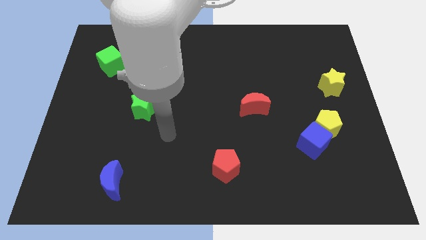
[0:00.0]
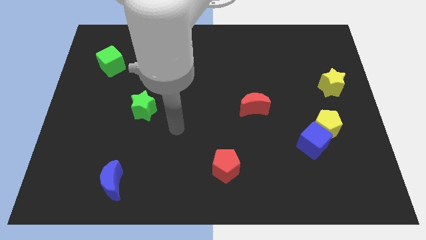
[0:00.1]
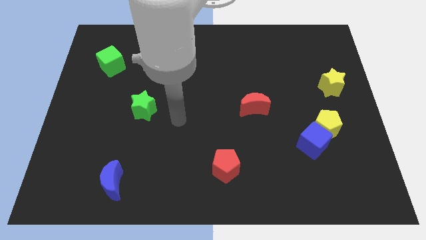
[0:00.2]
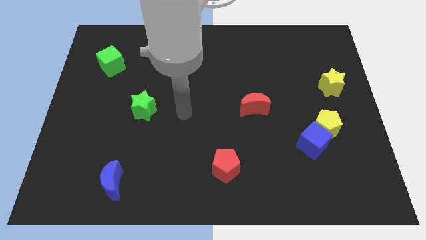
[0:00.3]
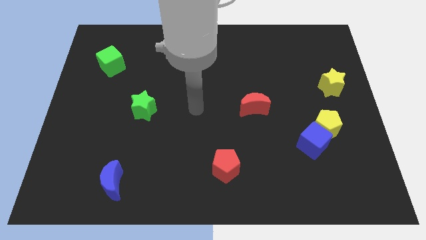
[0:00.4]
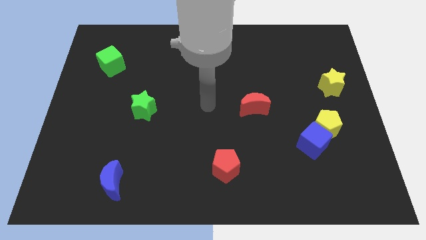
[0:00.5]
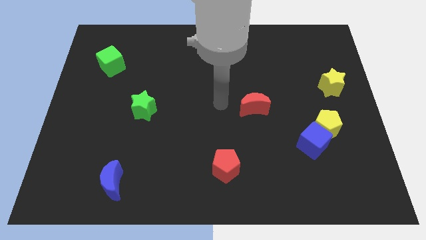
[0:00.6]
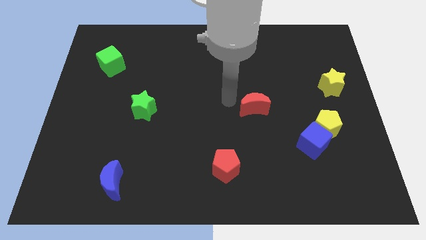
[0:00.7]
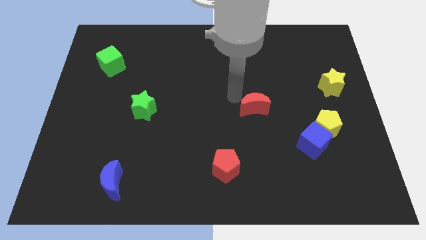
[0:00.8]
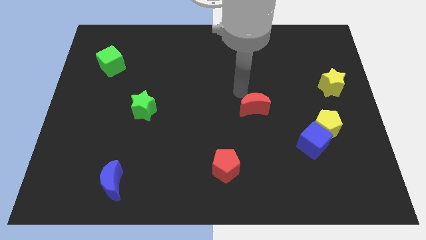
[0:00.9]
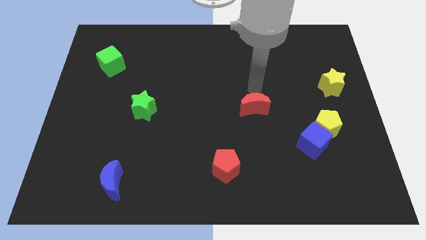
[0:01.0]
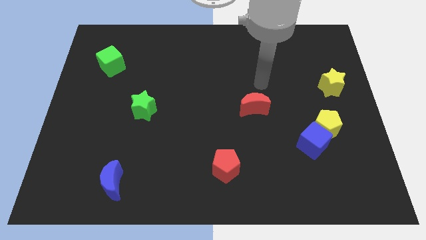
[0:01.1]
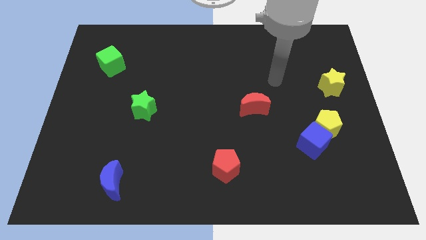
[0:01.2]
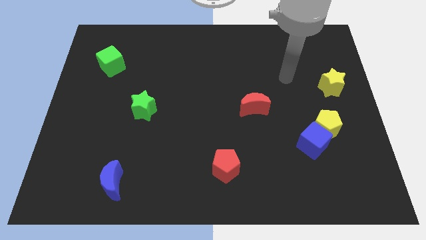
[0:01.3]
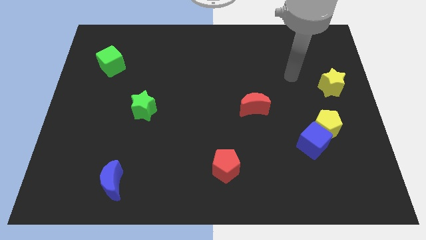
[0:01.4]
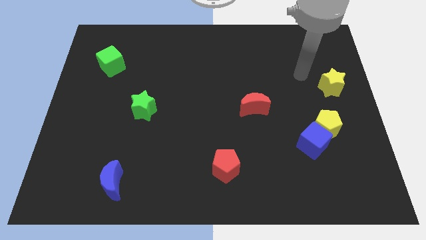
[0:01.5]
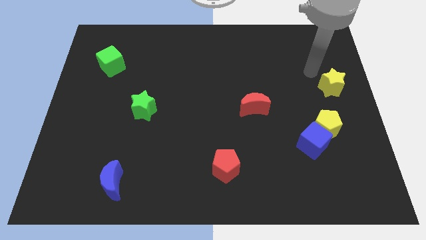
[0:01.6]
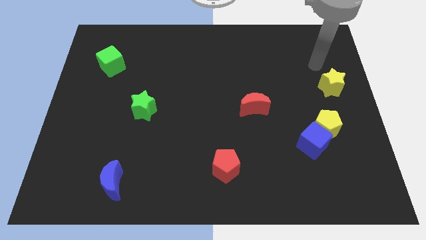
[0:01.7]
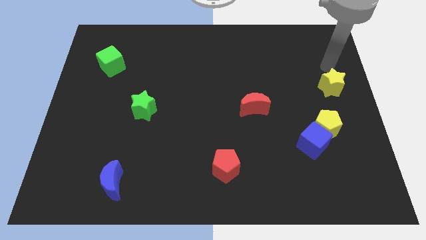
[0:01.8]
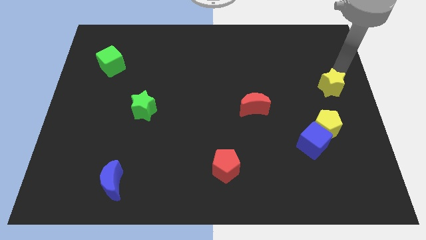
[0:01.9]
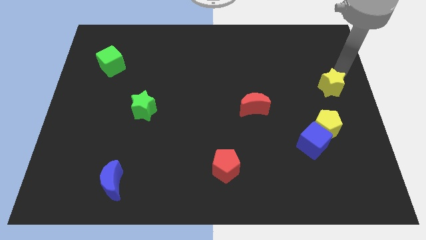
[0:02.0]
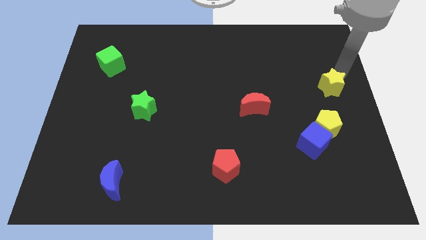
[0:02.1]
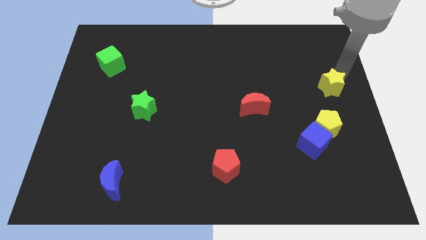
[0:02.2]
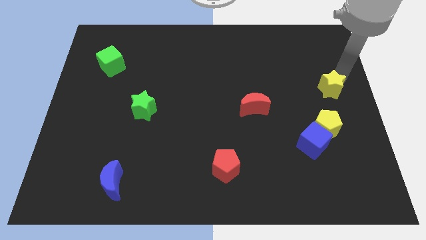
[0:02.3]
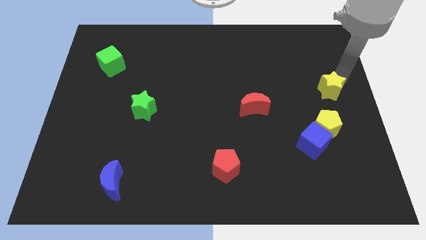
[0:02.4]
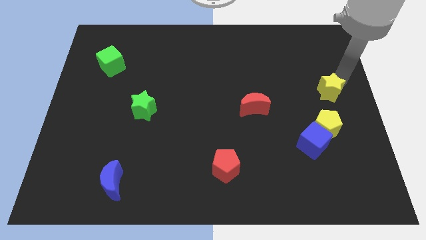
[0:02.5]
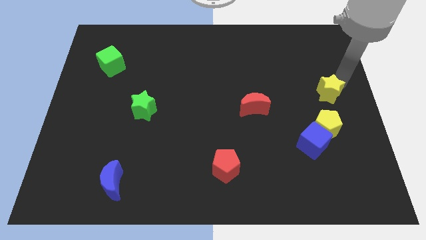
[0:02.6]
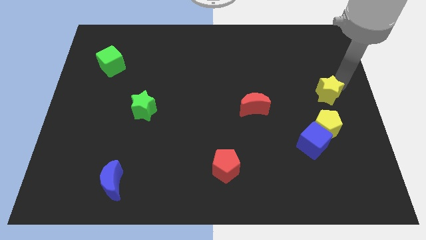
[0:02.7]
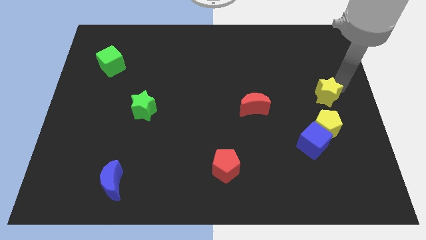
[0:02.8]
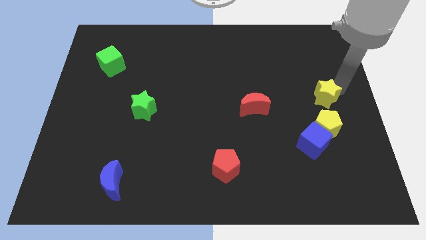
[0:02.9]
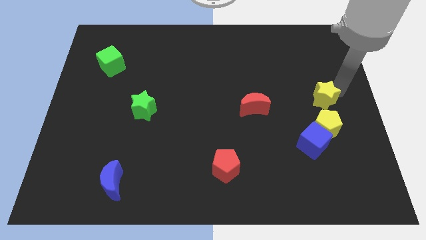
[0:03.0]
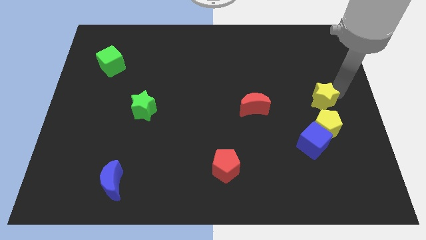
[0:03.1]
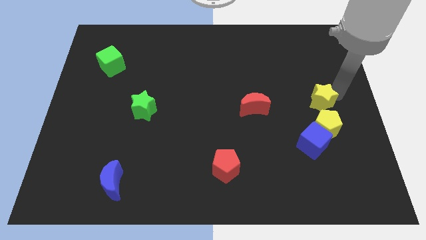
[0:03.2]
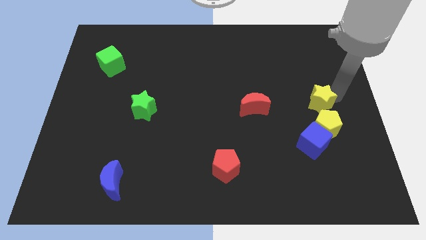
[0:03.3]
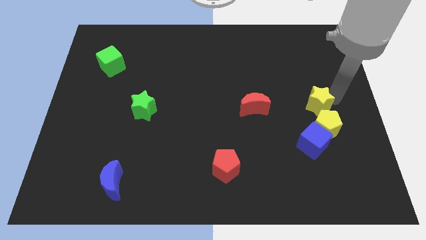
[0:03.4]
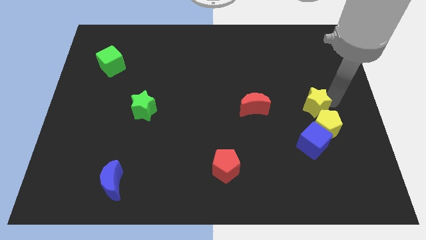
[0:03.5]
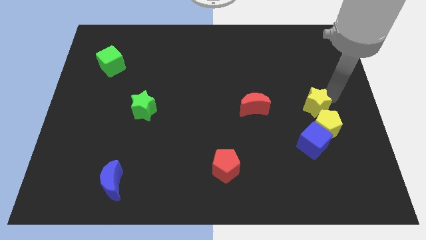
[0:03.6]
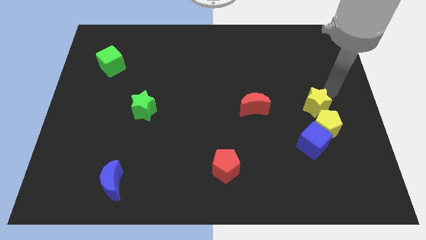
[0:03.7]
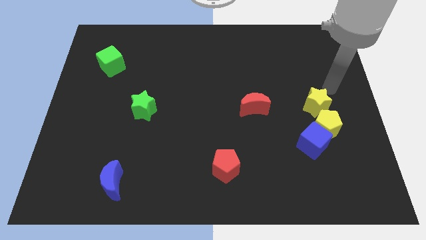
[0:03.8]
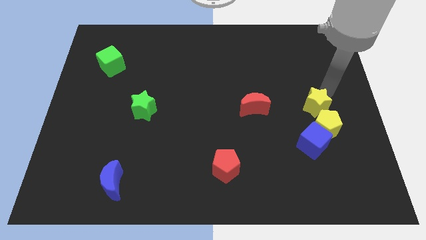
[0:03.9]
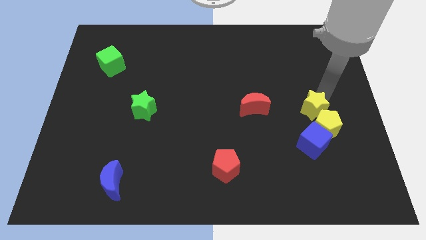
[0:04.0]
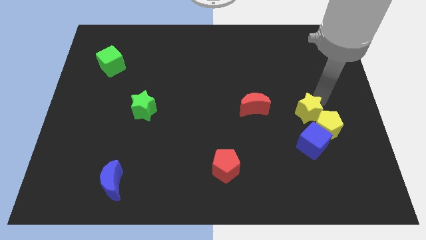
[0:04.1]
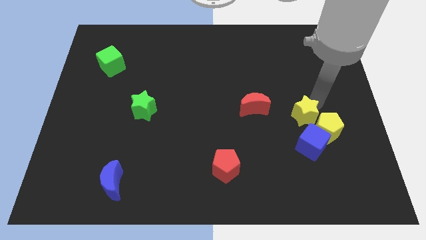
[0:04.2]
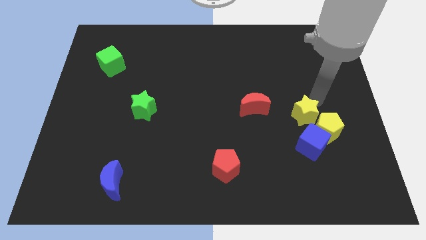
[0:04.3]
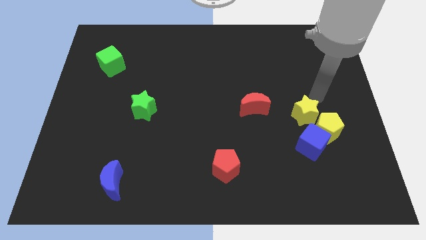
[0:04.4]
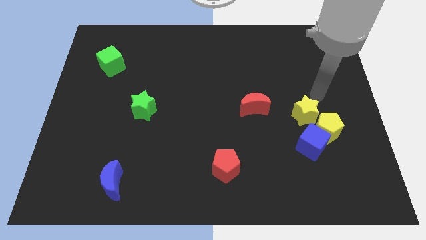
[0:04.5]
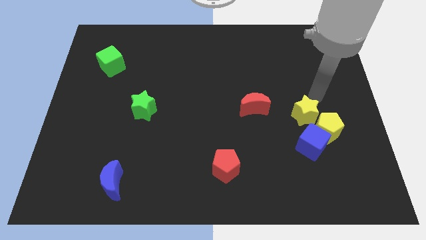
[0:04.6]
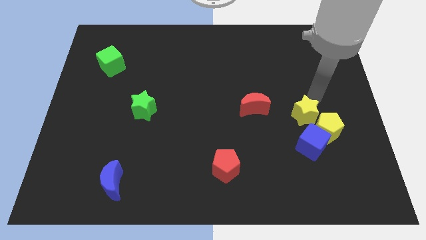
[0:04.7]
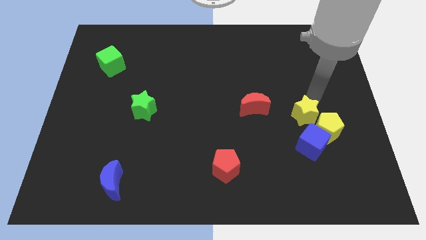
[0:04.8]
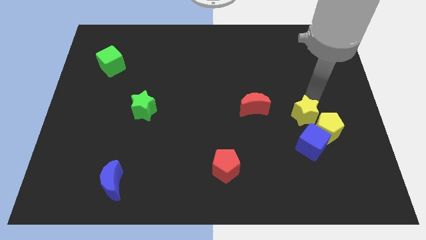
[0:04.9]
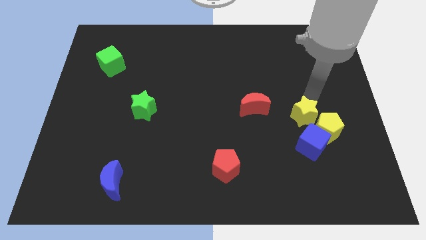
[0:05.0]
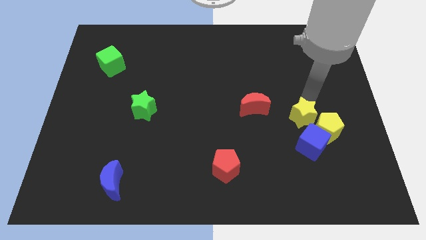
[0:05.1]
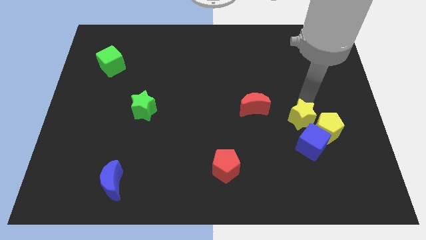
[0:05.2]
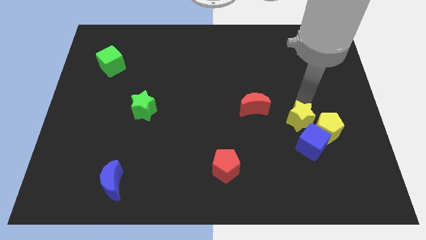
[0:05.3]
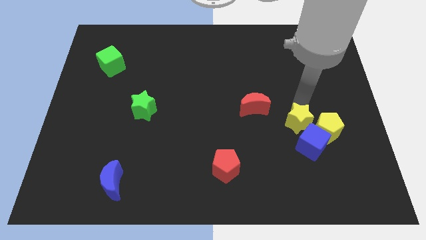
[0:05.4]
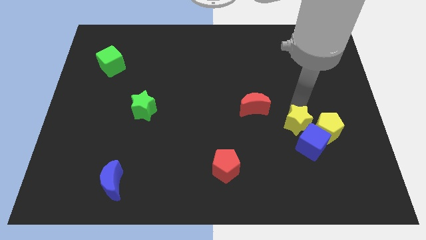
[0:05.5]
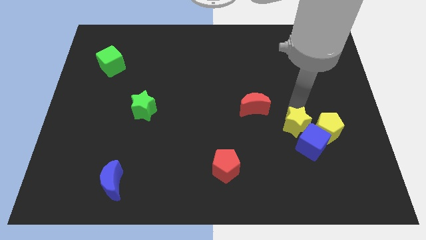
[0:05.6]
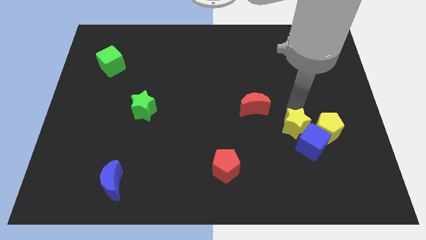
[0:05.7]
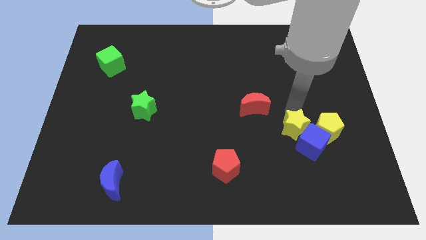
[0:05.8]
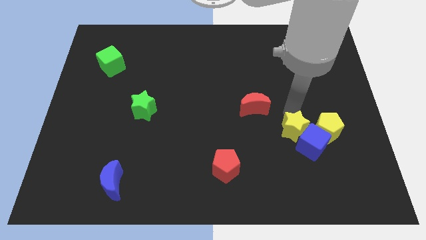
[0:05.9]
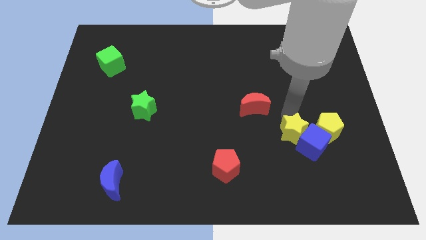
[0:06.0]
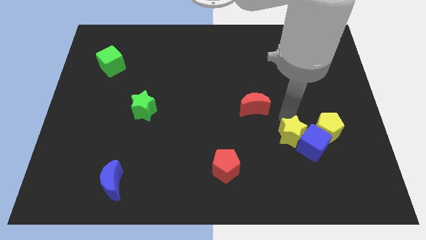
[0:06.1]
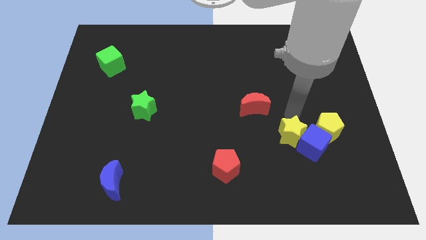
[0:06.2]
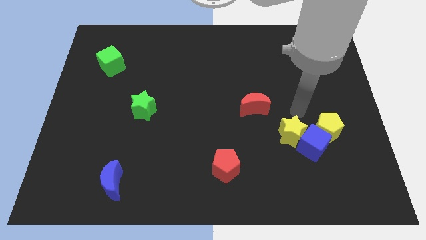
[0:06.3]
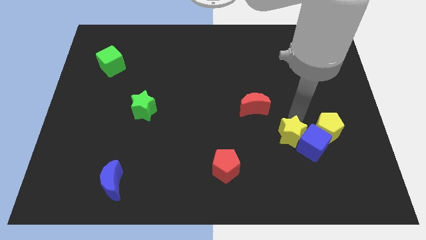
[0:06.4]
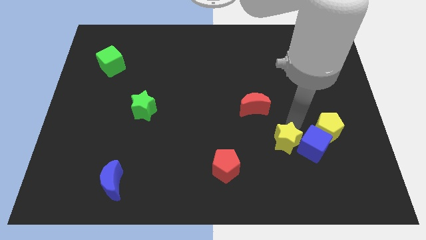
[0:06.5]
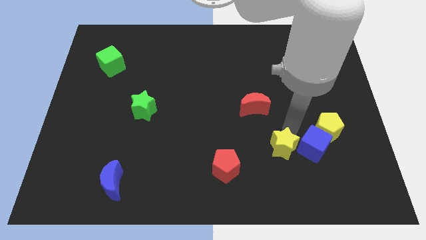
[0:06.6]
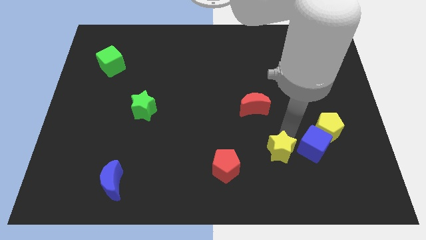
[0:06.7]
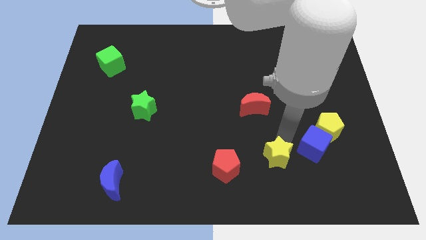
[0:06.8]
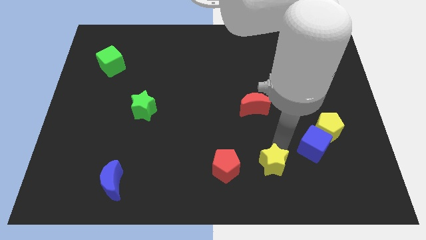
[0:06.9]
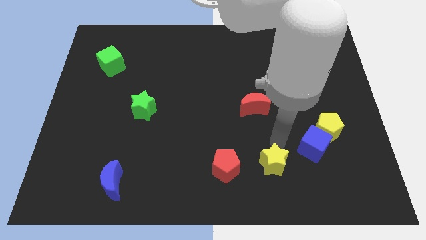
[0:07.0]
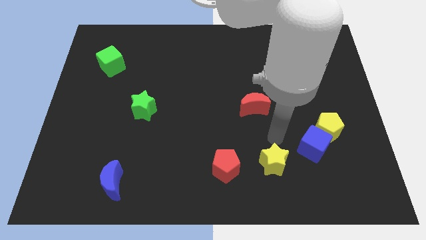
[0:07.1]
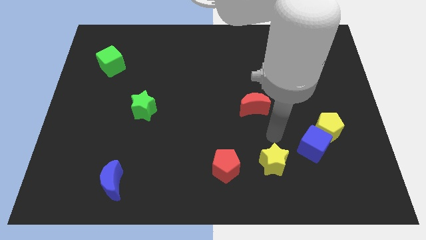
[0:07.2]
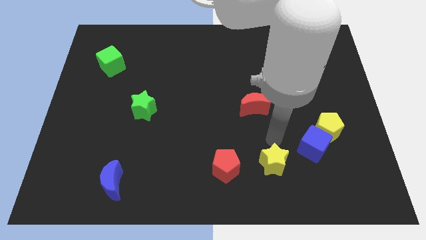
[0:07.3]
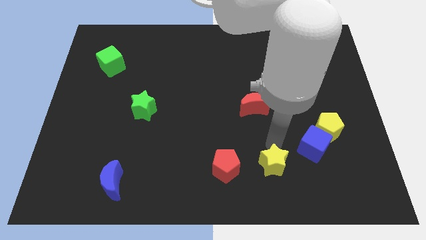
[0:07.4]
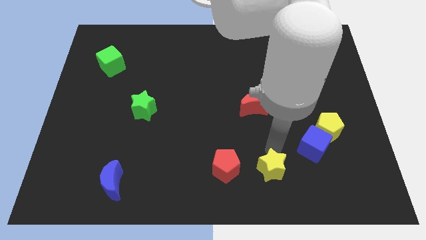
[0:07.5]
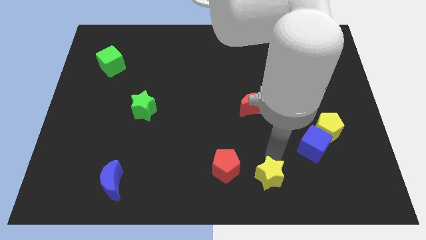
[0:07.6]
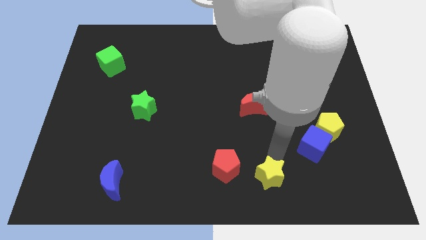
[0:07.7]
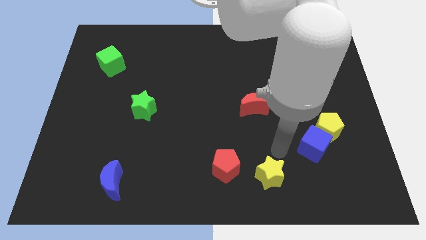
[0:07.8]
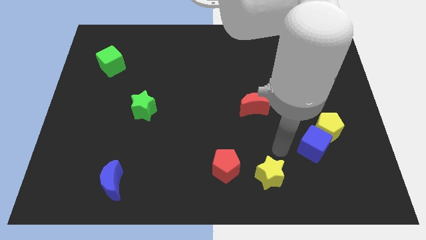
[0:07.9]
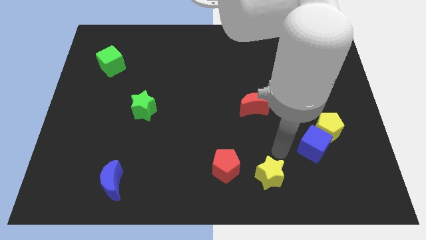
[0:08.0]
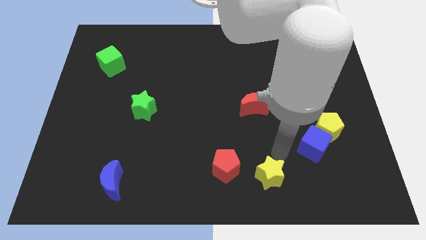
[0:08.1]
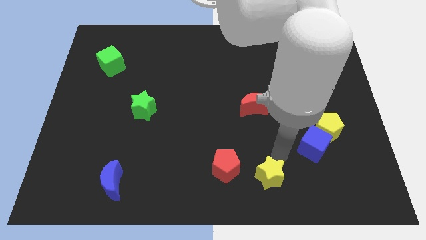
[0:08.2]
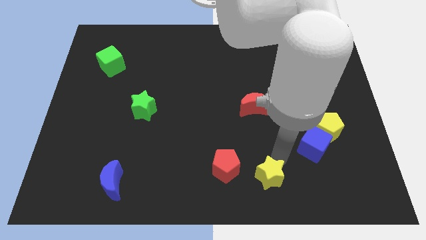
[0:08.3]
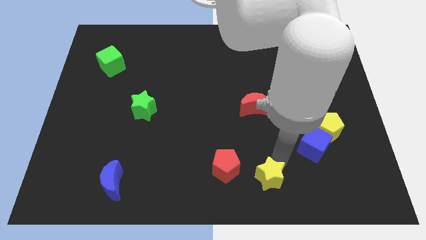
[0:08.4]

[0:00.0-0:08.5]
push the yellow star to the bottom side
